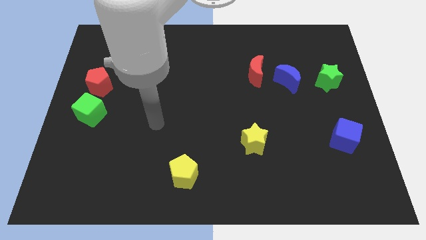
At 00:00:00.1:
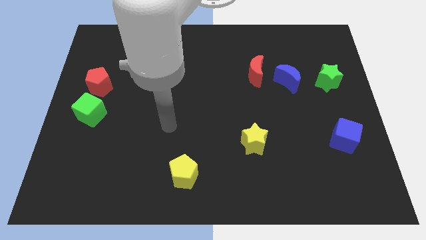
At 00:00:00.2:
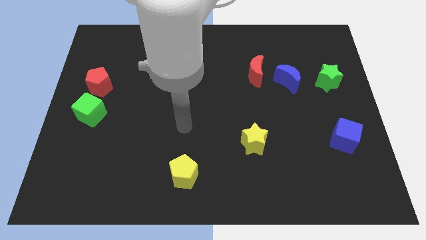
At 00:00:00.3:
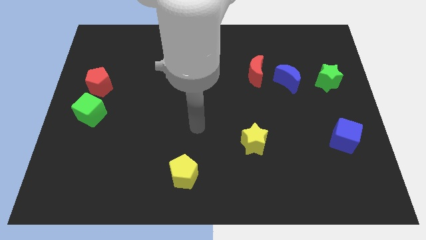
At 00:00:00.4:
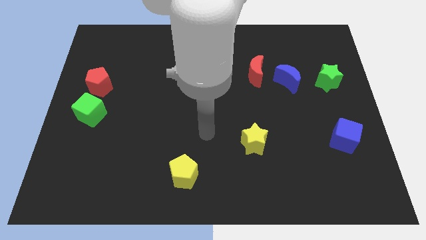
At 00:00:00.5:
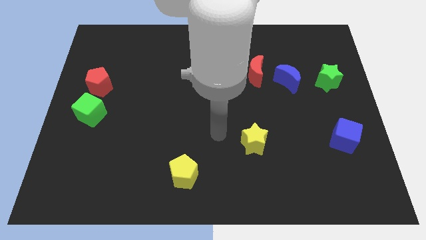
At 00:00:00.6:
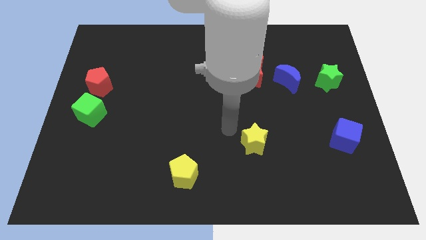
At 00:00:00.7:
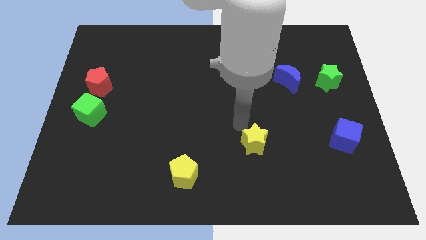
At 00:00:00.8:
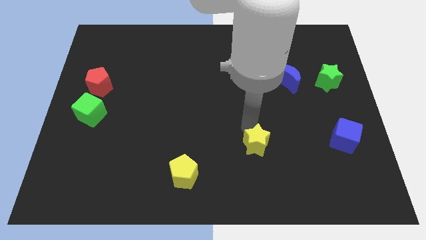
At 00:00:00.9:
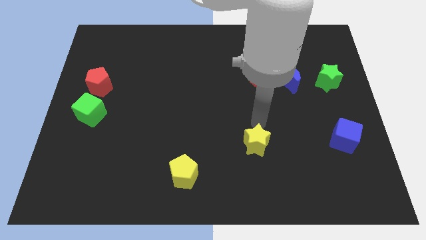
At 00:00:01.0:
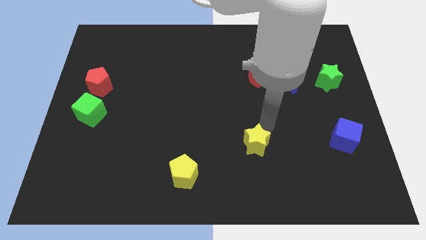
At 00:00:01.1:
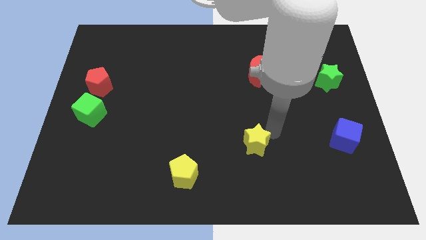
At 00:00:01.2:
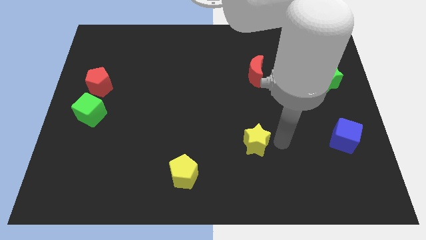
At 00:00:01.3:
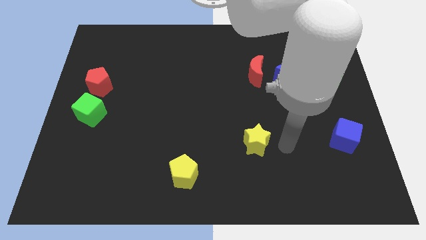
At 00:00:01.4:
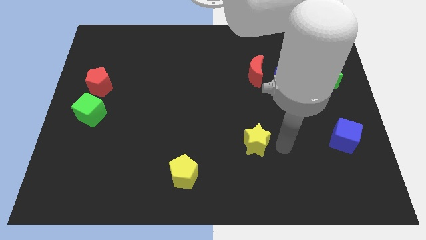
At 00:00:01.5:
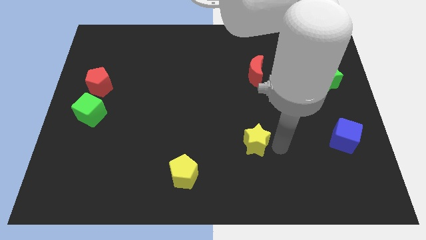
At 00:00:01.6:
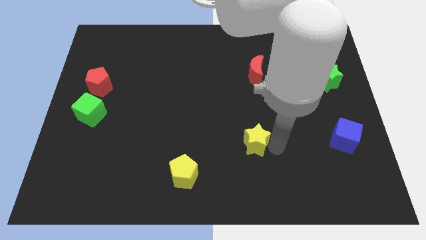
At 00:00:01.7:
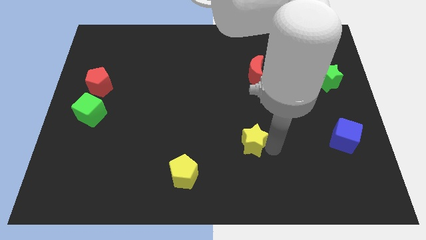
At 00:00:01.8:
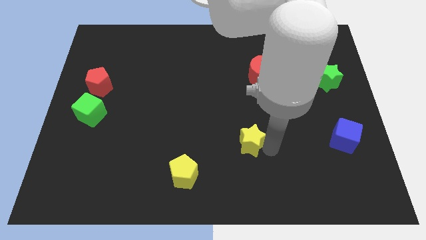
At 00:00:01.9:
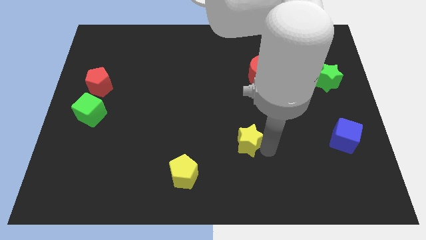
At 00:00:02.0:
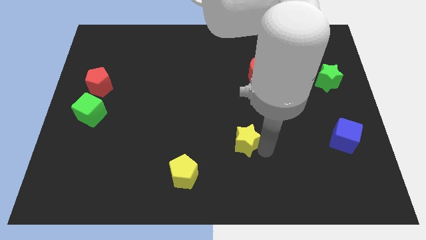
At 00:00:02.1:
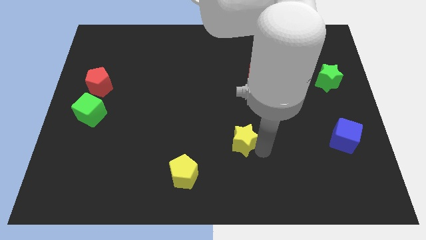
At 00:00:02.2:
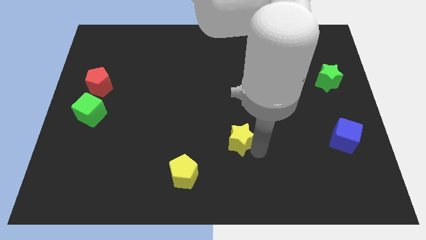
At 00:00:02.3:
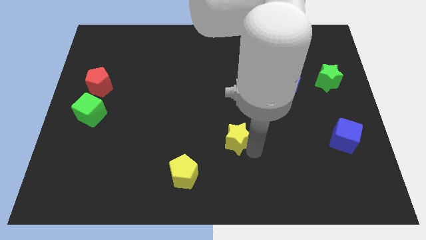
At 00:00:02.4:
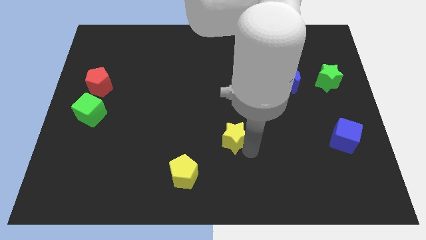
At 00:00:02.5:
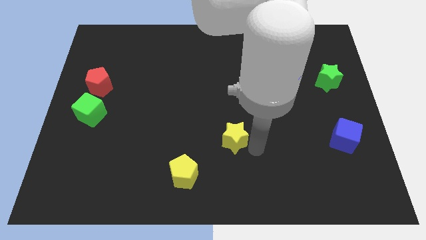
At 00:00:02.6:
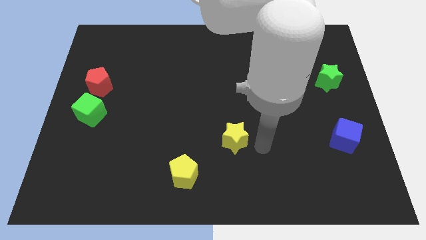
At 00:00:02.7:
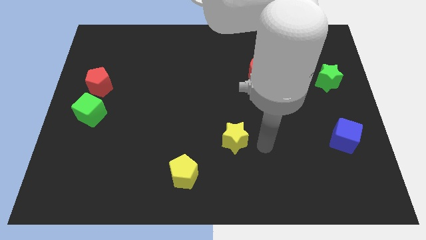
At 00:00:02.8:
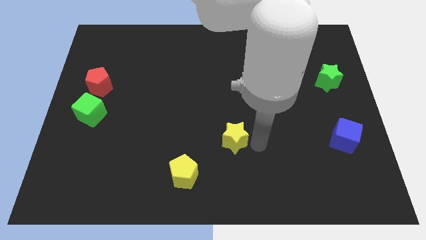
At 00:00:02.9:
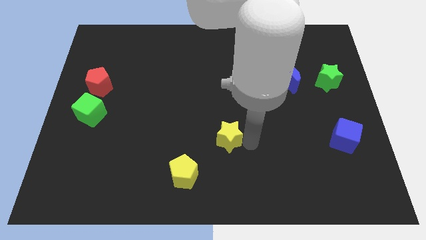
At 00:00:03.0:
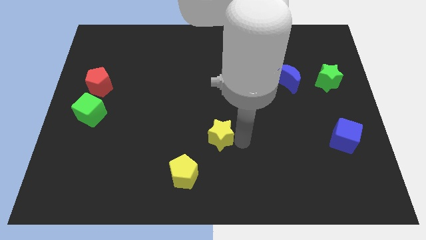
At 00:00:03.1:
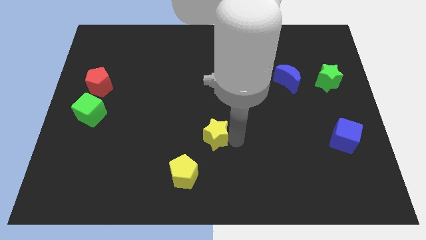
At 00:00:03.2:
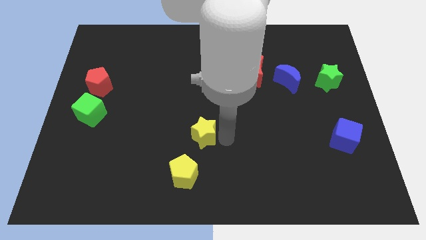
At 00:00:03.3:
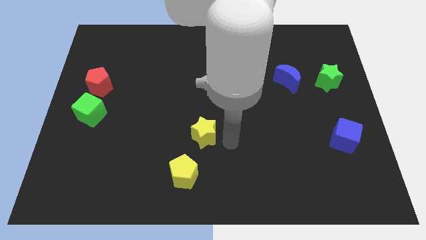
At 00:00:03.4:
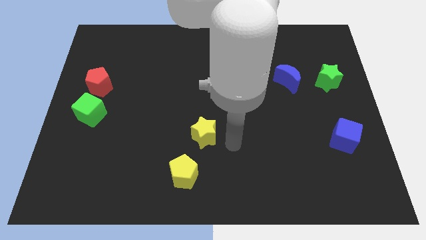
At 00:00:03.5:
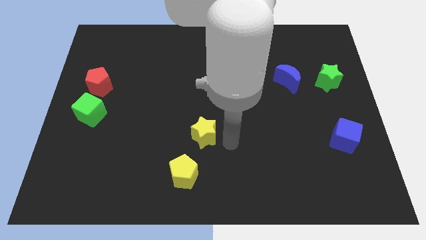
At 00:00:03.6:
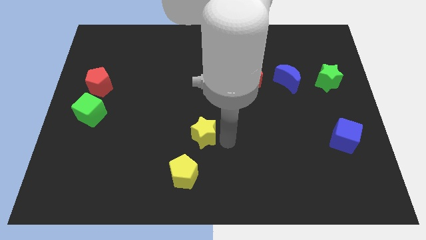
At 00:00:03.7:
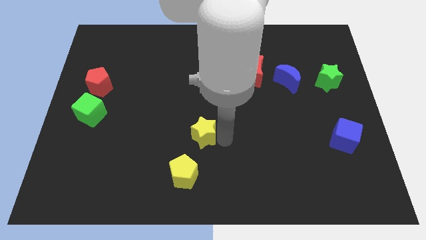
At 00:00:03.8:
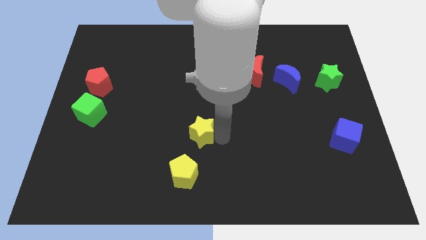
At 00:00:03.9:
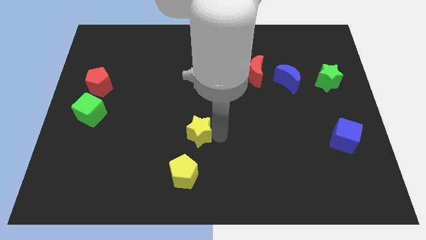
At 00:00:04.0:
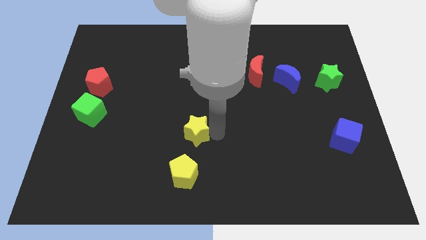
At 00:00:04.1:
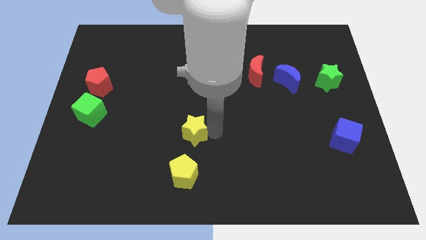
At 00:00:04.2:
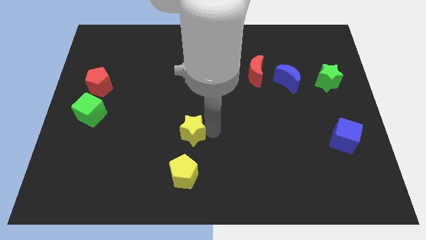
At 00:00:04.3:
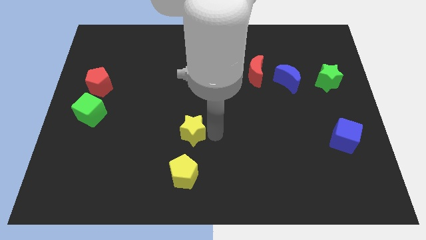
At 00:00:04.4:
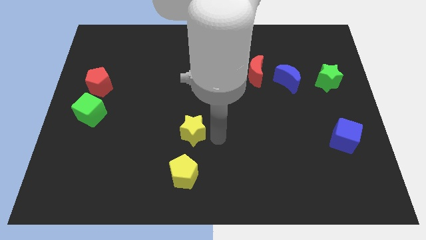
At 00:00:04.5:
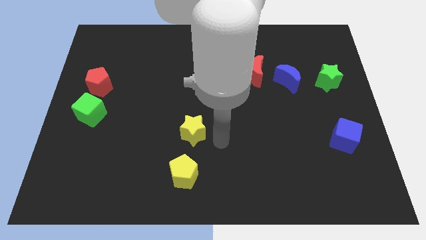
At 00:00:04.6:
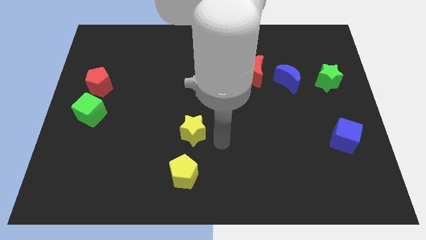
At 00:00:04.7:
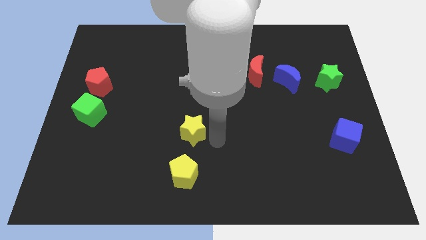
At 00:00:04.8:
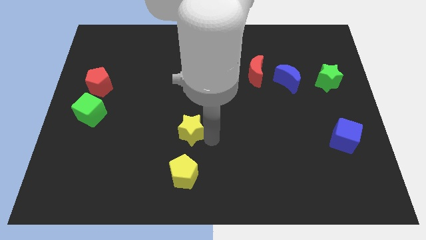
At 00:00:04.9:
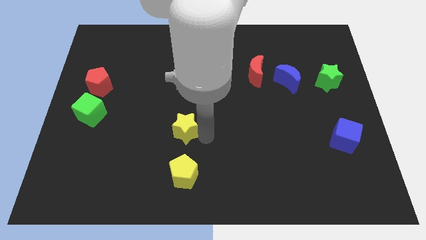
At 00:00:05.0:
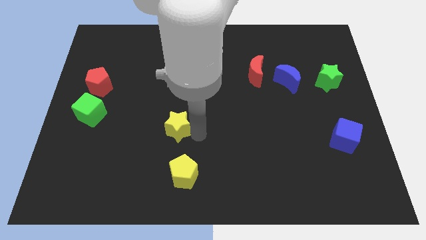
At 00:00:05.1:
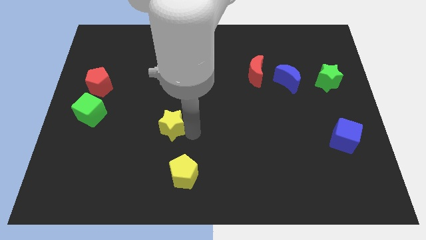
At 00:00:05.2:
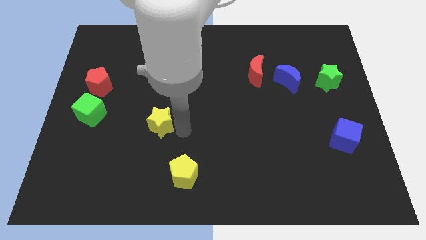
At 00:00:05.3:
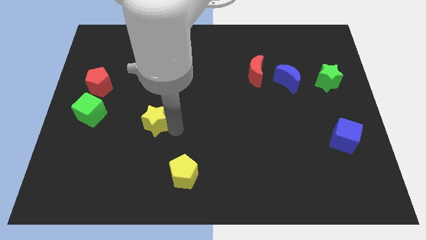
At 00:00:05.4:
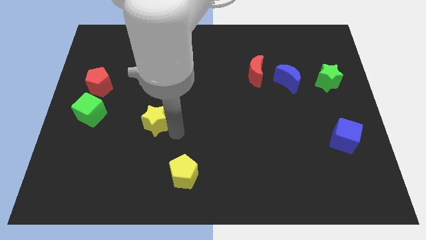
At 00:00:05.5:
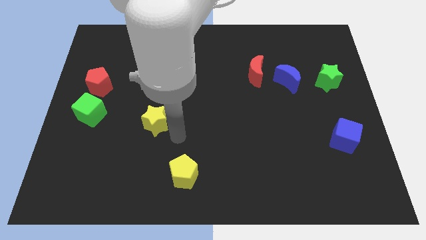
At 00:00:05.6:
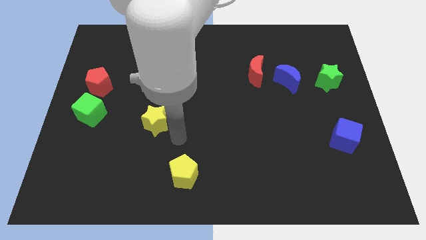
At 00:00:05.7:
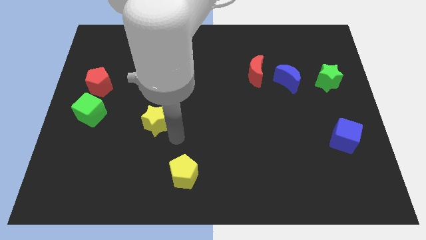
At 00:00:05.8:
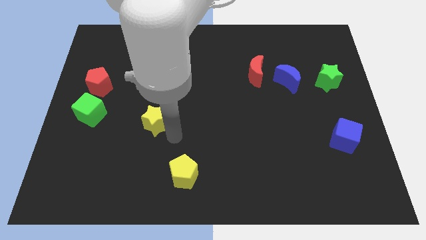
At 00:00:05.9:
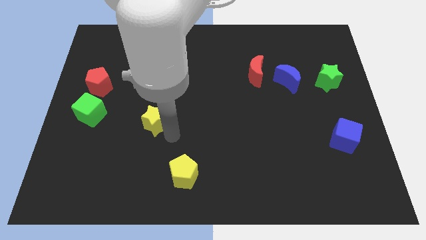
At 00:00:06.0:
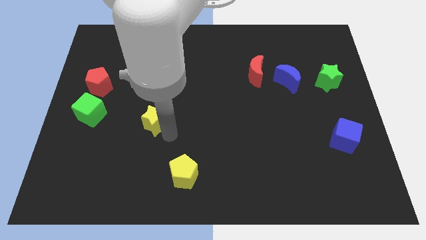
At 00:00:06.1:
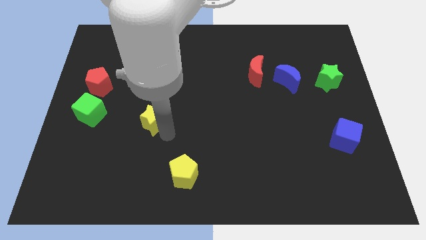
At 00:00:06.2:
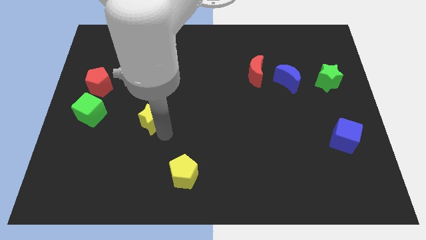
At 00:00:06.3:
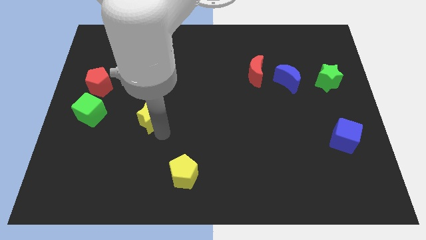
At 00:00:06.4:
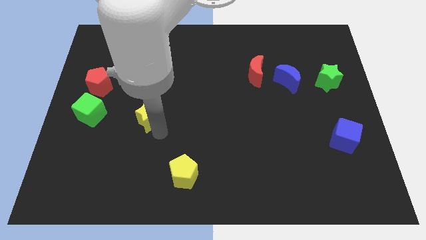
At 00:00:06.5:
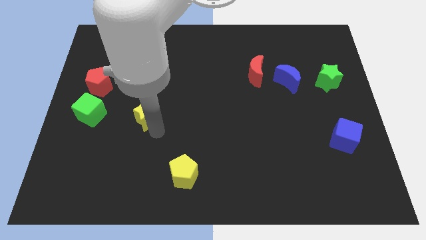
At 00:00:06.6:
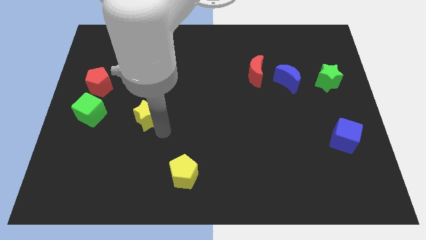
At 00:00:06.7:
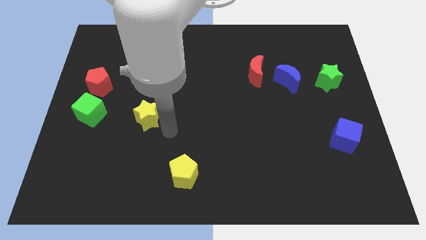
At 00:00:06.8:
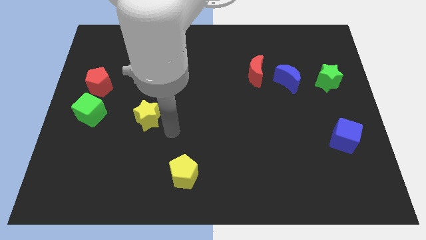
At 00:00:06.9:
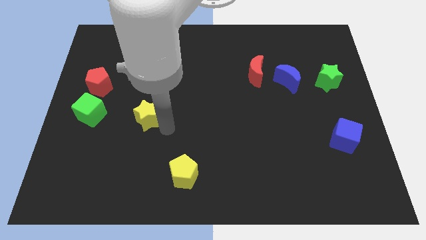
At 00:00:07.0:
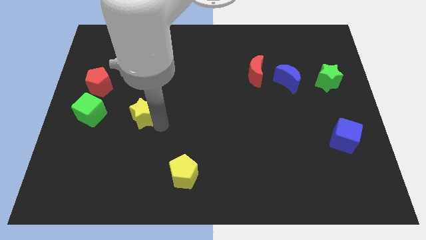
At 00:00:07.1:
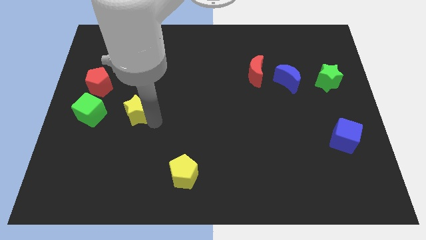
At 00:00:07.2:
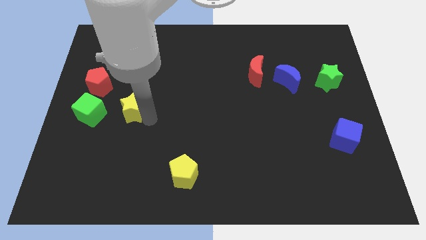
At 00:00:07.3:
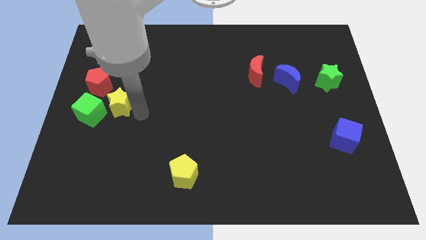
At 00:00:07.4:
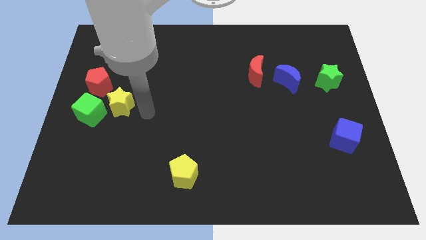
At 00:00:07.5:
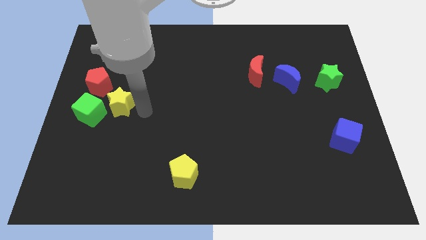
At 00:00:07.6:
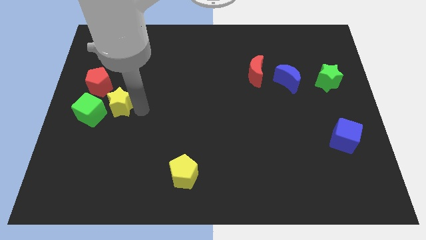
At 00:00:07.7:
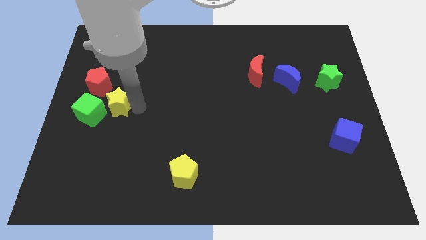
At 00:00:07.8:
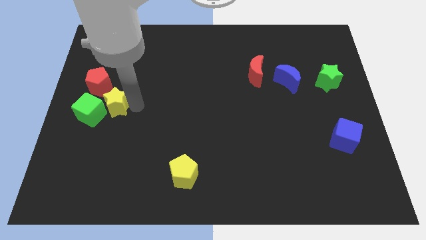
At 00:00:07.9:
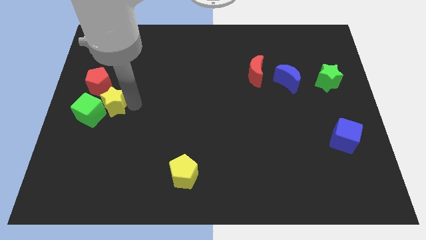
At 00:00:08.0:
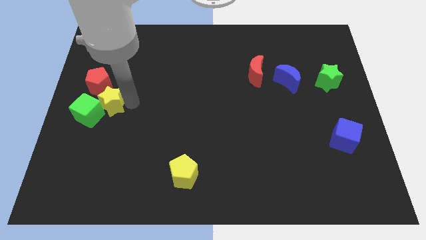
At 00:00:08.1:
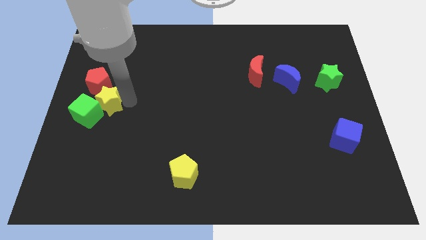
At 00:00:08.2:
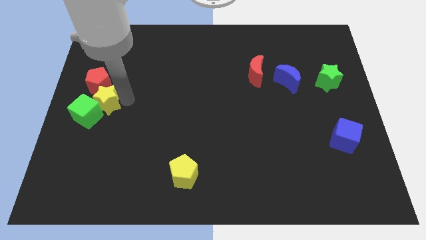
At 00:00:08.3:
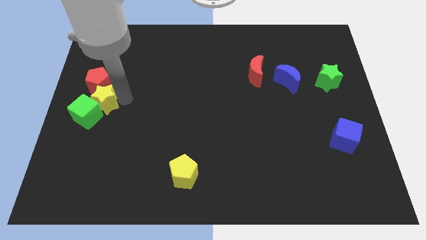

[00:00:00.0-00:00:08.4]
push the yellow star to the left side of the board
